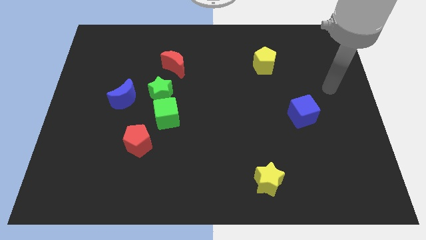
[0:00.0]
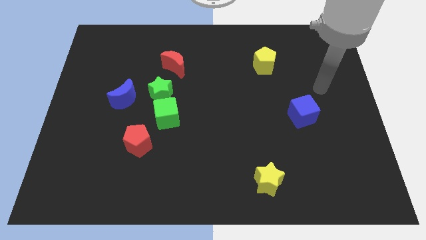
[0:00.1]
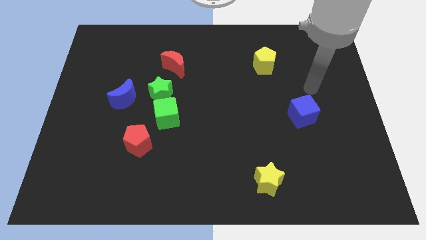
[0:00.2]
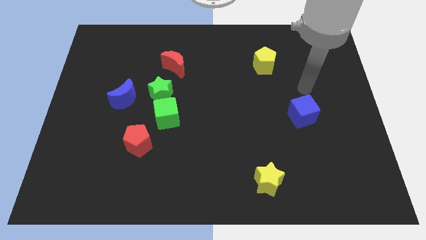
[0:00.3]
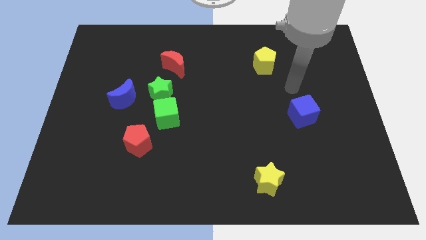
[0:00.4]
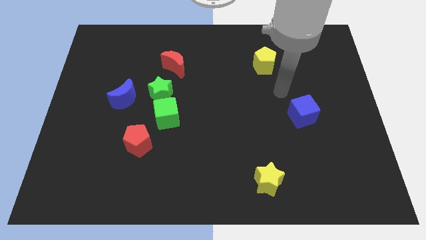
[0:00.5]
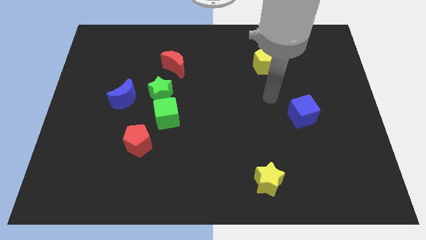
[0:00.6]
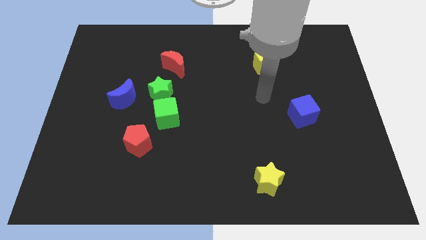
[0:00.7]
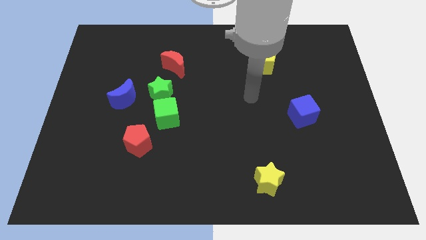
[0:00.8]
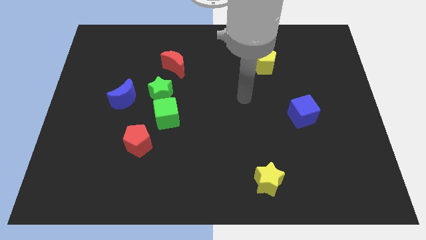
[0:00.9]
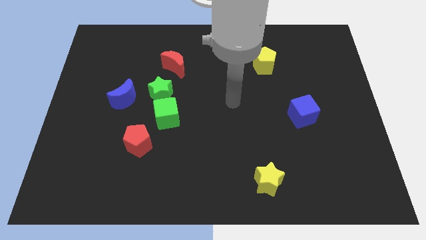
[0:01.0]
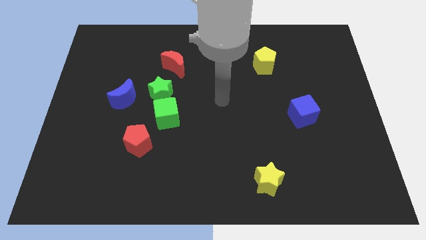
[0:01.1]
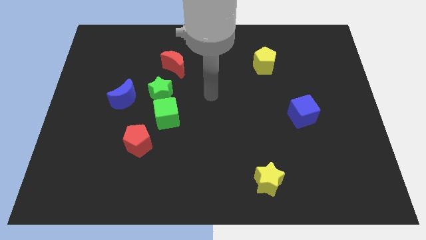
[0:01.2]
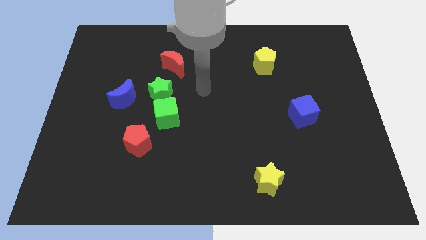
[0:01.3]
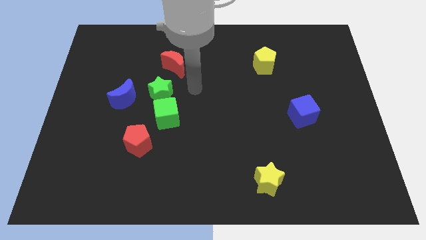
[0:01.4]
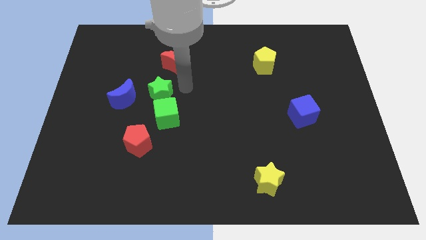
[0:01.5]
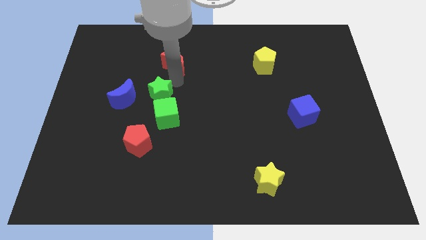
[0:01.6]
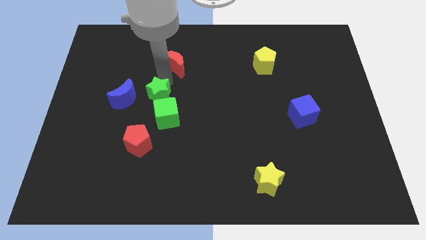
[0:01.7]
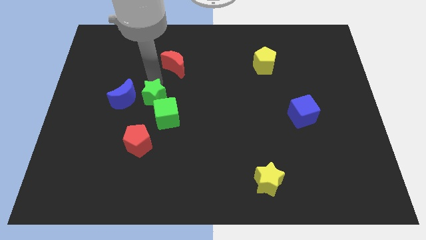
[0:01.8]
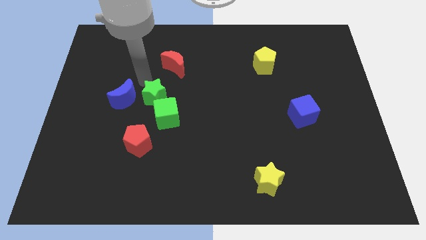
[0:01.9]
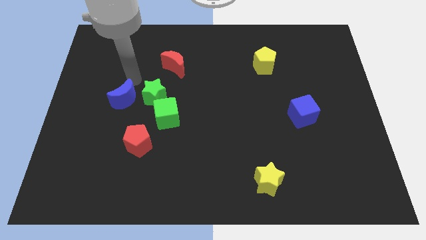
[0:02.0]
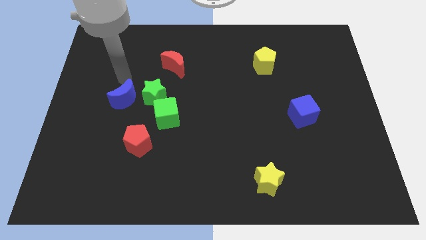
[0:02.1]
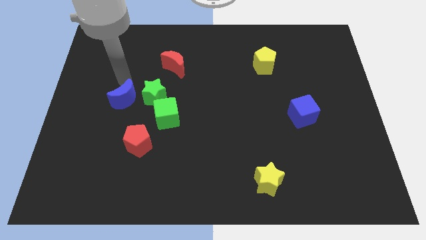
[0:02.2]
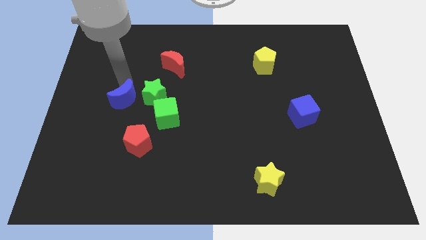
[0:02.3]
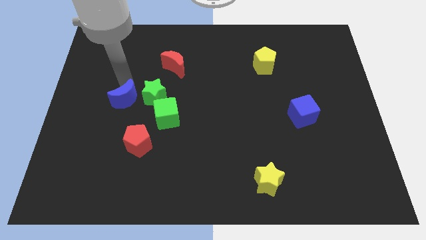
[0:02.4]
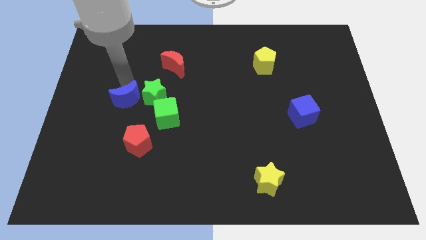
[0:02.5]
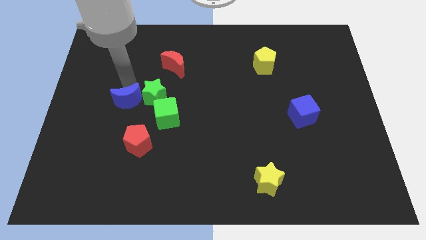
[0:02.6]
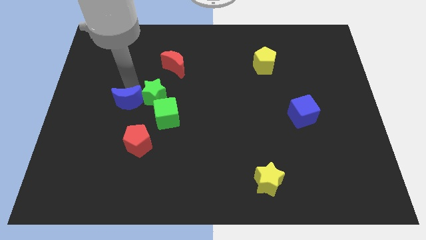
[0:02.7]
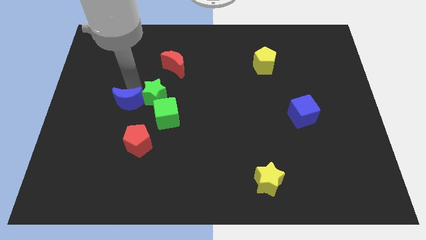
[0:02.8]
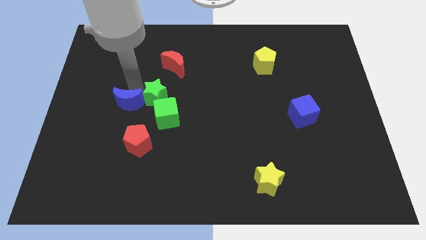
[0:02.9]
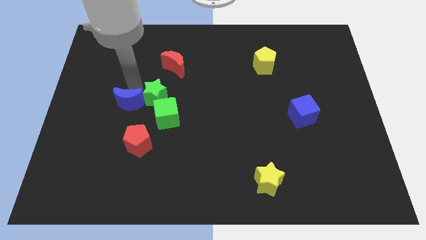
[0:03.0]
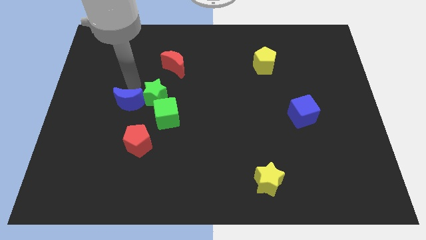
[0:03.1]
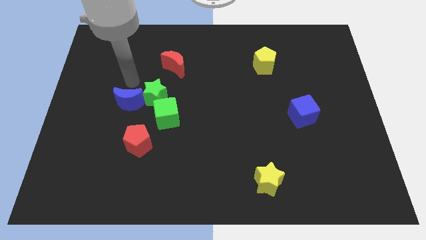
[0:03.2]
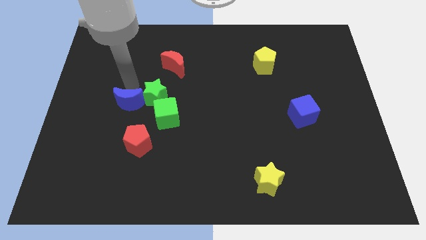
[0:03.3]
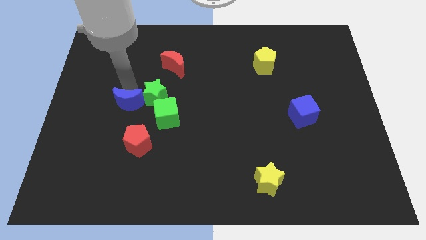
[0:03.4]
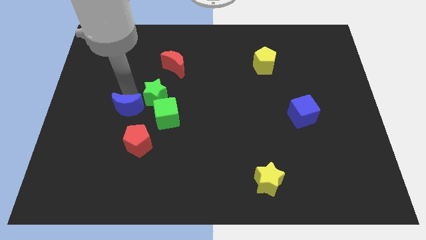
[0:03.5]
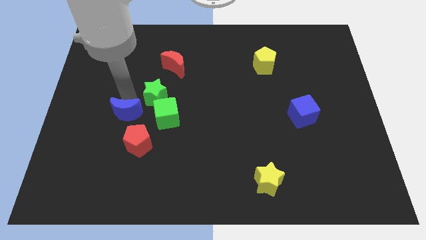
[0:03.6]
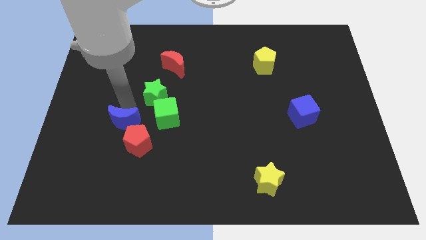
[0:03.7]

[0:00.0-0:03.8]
move the blue moon a little bit downwards

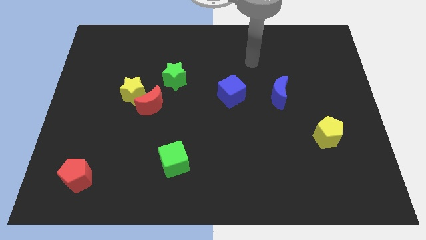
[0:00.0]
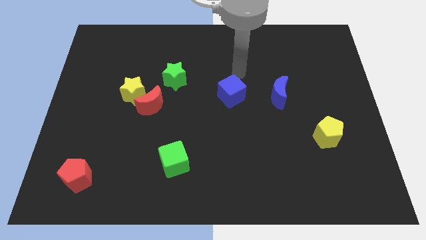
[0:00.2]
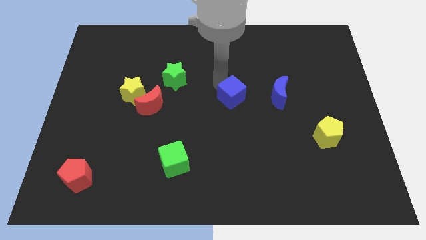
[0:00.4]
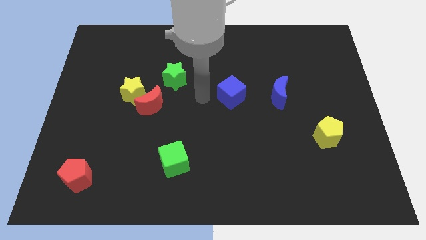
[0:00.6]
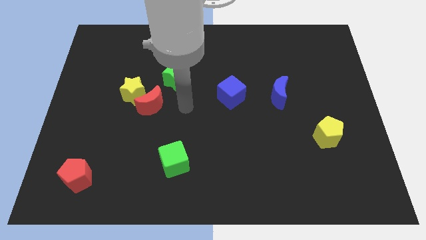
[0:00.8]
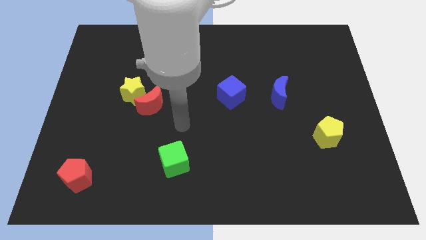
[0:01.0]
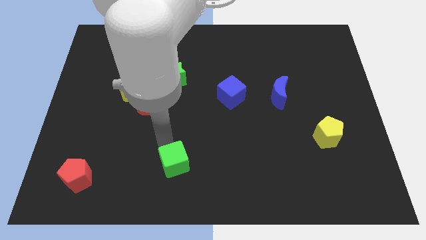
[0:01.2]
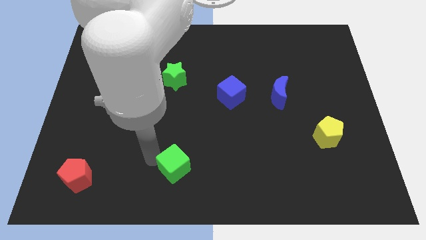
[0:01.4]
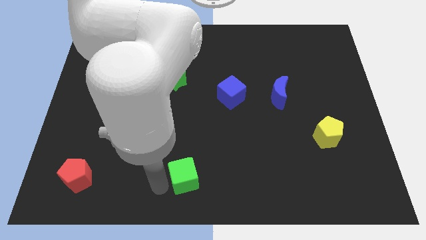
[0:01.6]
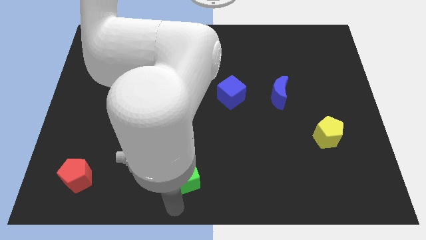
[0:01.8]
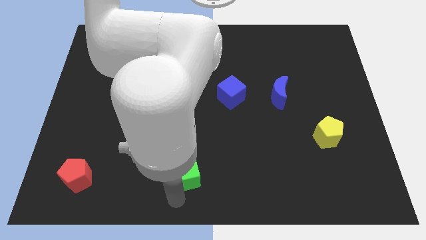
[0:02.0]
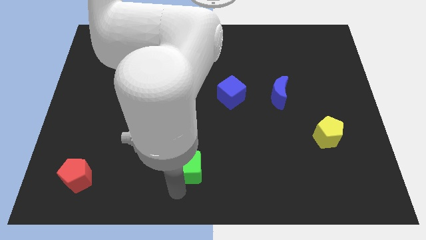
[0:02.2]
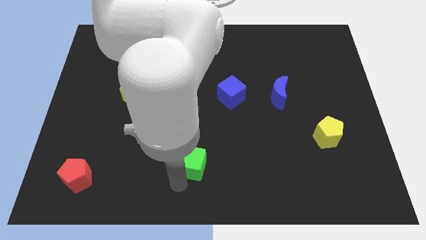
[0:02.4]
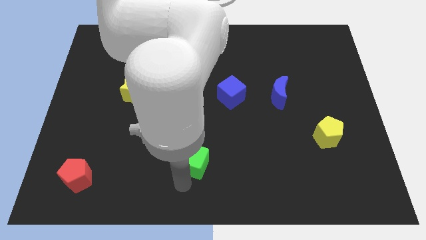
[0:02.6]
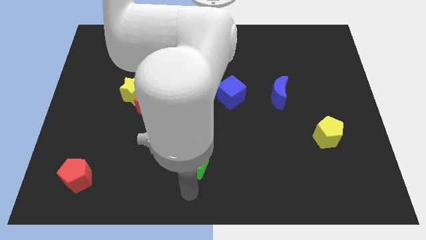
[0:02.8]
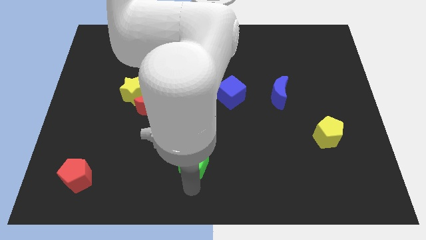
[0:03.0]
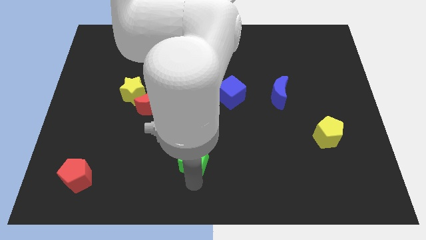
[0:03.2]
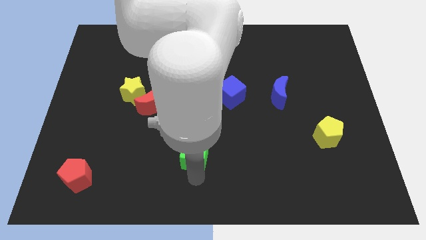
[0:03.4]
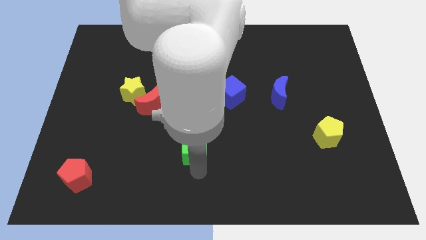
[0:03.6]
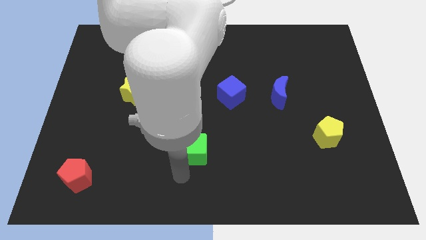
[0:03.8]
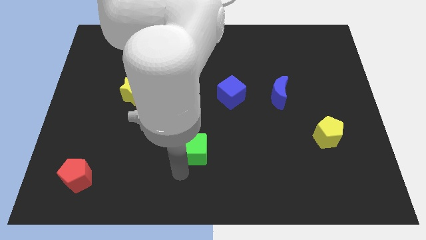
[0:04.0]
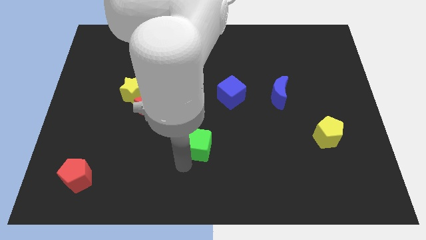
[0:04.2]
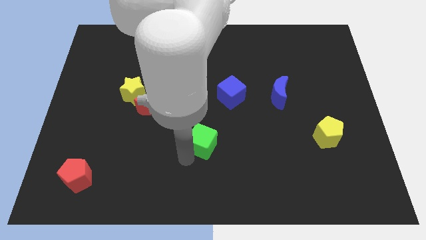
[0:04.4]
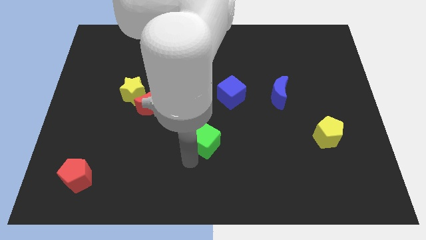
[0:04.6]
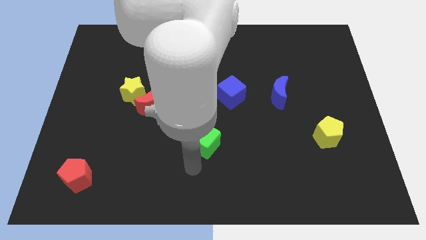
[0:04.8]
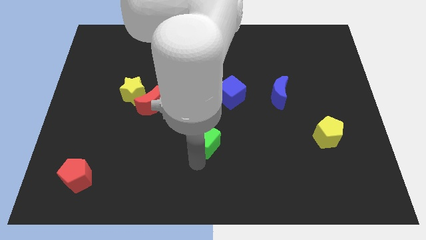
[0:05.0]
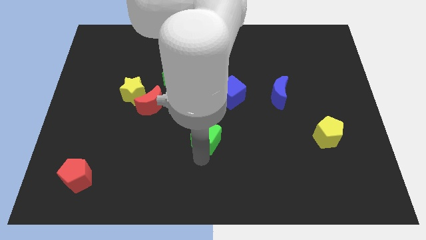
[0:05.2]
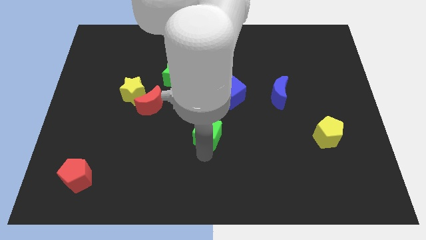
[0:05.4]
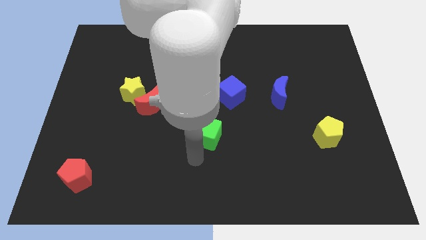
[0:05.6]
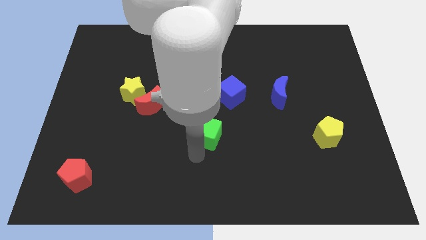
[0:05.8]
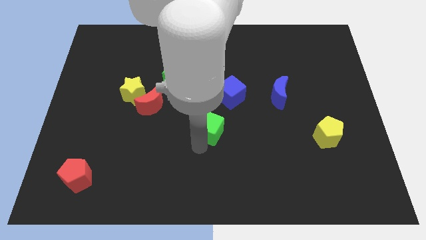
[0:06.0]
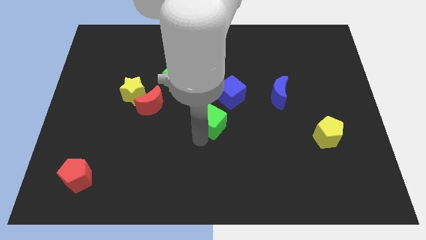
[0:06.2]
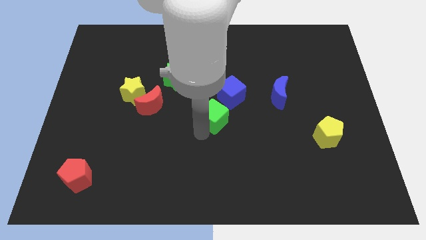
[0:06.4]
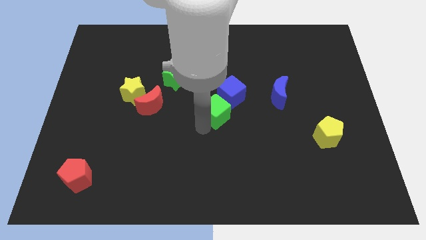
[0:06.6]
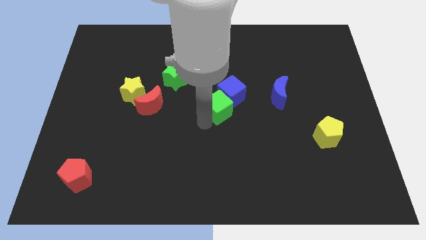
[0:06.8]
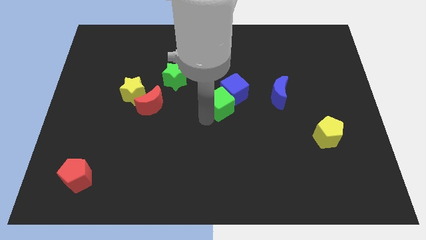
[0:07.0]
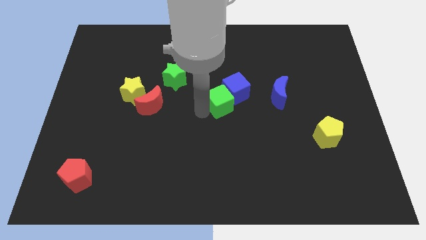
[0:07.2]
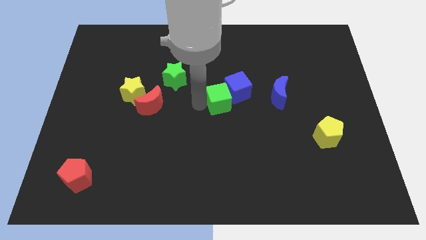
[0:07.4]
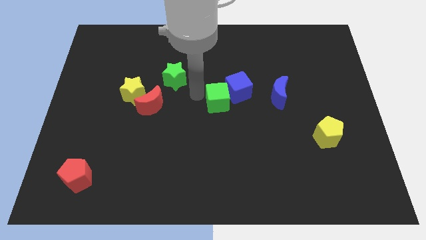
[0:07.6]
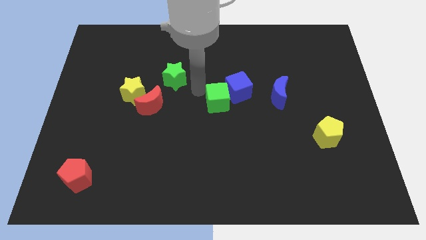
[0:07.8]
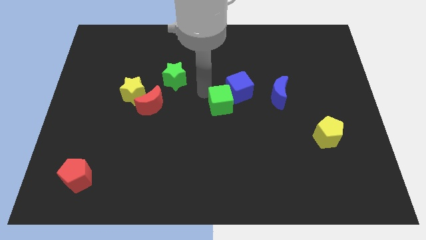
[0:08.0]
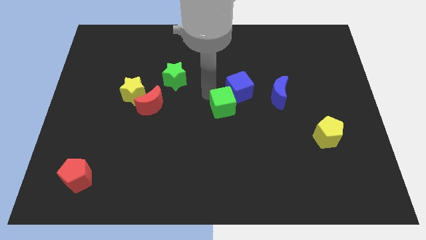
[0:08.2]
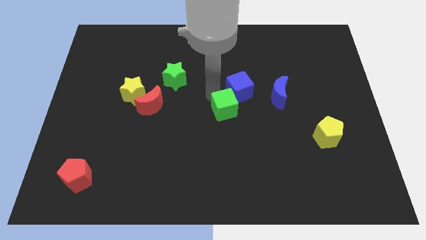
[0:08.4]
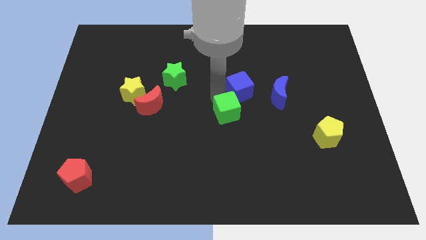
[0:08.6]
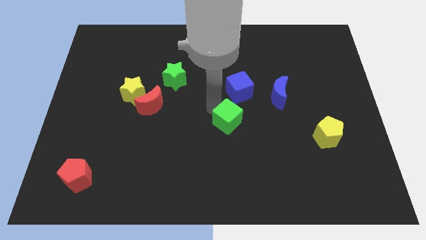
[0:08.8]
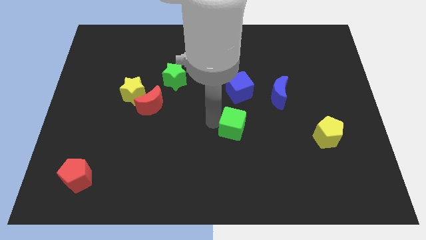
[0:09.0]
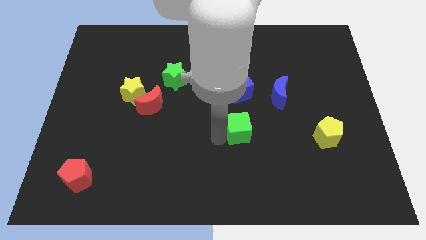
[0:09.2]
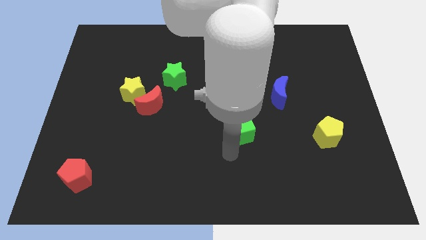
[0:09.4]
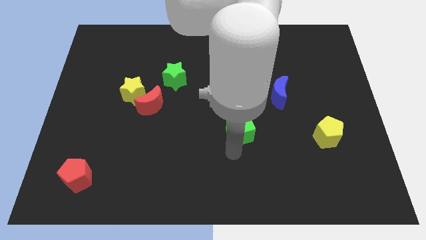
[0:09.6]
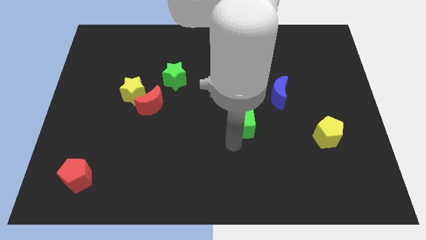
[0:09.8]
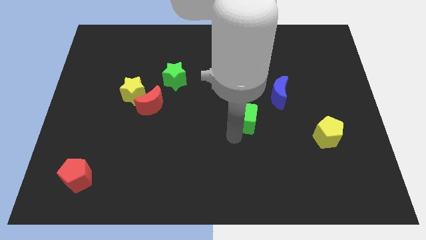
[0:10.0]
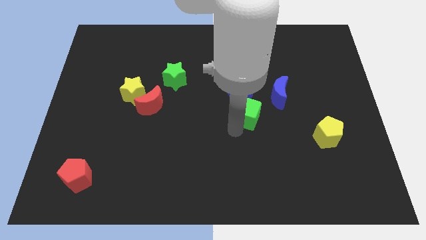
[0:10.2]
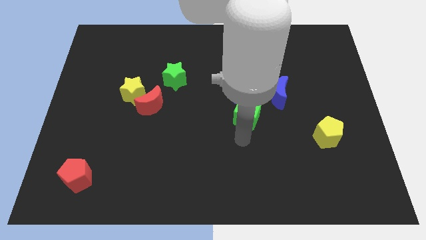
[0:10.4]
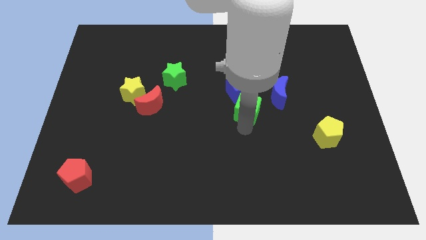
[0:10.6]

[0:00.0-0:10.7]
move the green cube up and to the right
